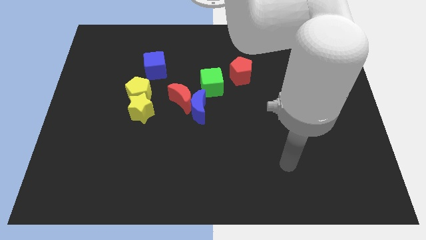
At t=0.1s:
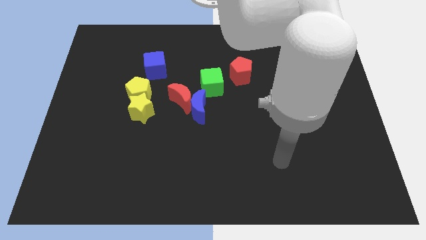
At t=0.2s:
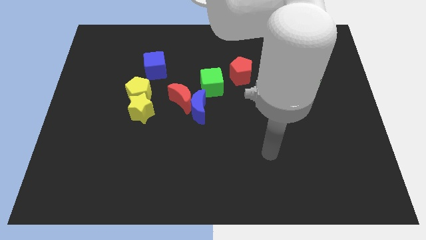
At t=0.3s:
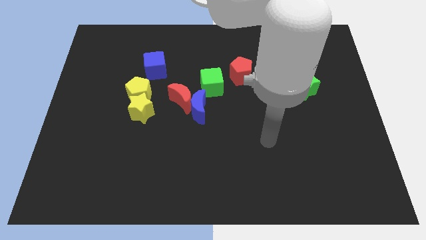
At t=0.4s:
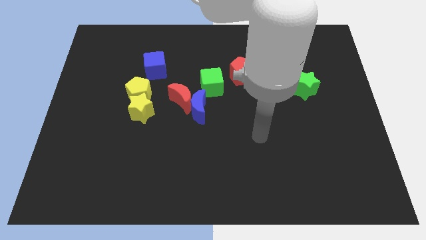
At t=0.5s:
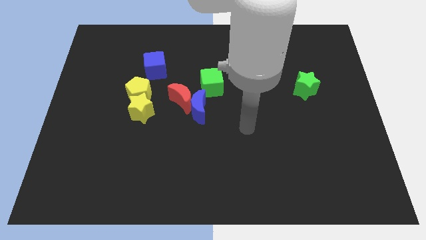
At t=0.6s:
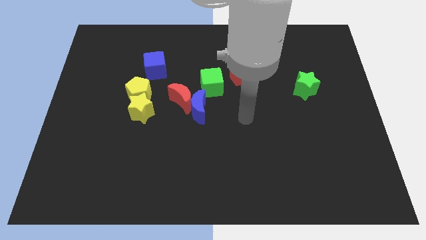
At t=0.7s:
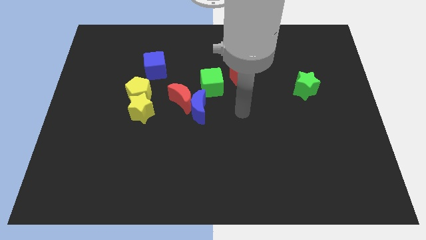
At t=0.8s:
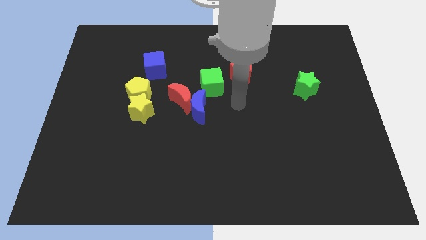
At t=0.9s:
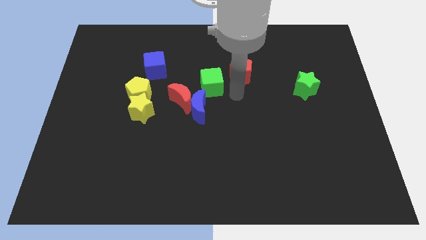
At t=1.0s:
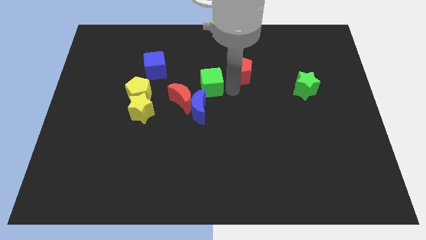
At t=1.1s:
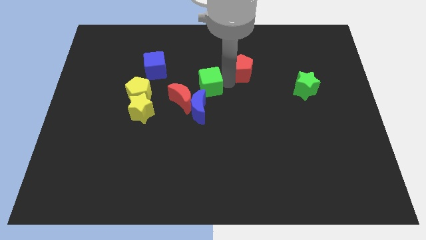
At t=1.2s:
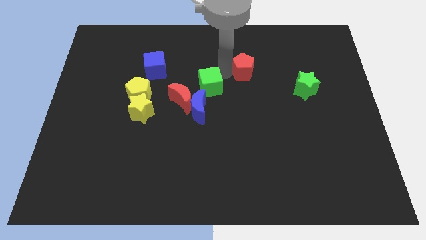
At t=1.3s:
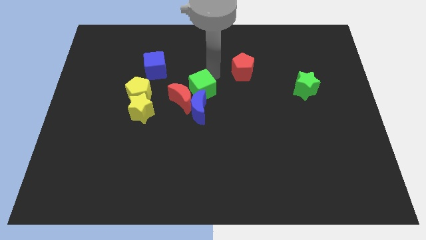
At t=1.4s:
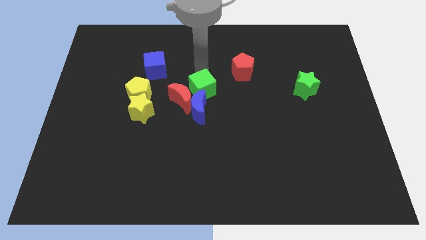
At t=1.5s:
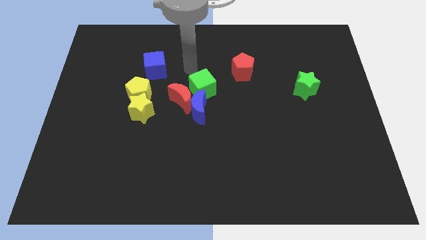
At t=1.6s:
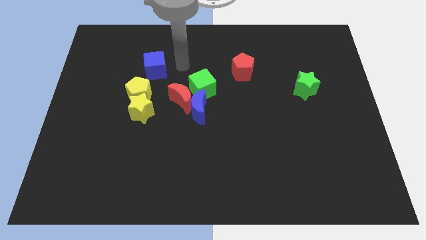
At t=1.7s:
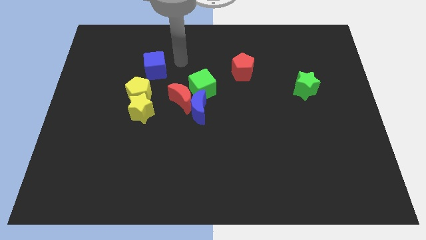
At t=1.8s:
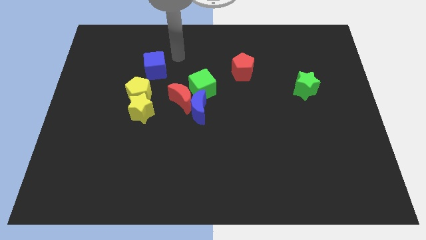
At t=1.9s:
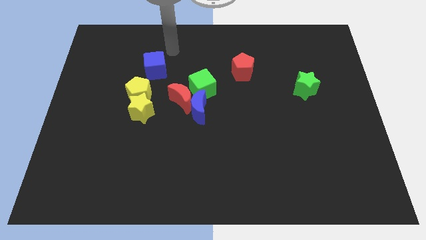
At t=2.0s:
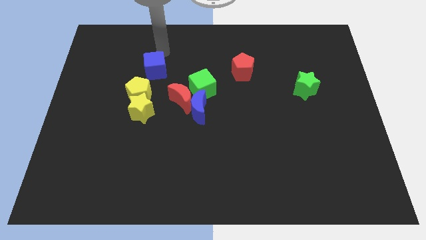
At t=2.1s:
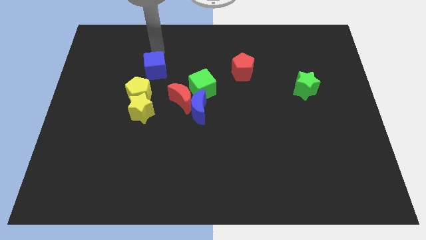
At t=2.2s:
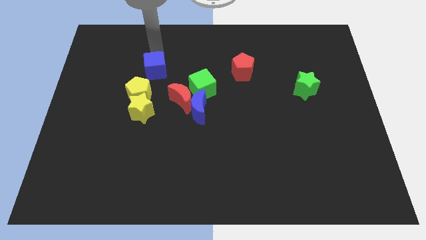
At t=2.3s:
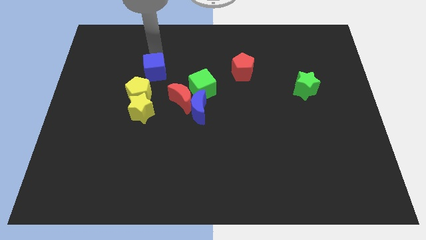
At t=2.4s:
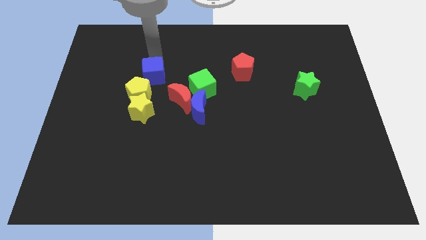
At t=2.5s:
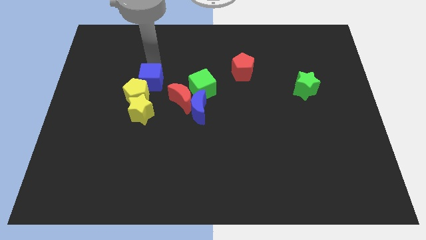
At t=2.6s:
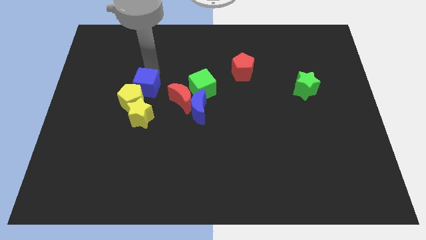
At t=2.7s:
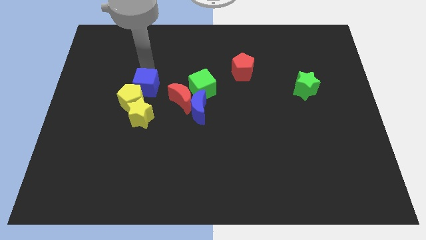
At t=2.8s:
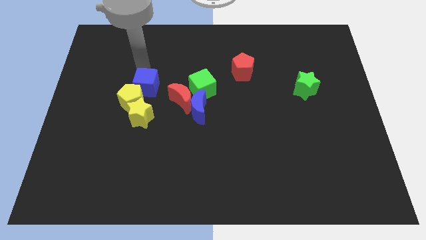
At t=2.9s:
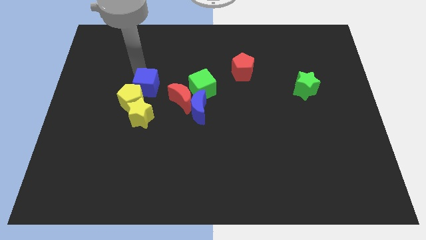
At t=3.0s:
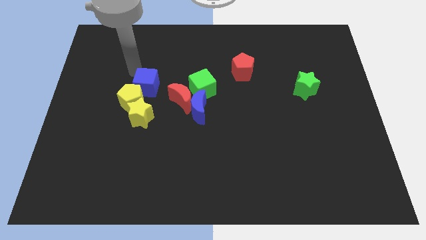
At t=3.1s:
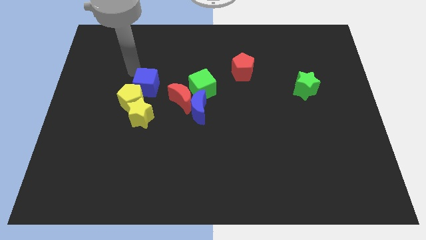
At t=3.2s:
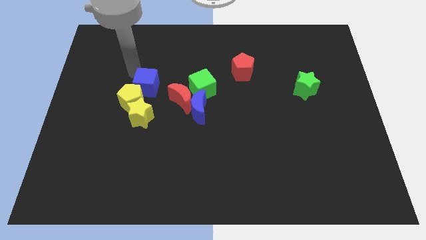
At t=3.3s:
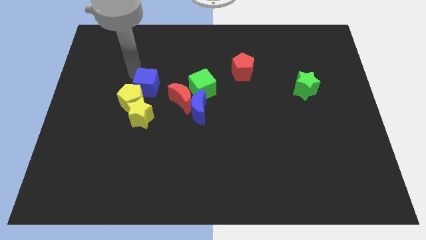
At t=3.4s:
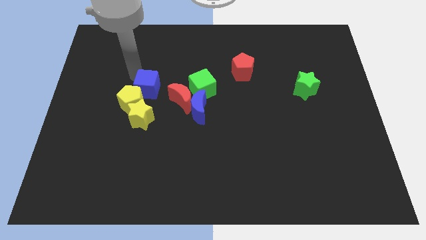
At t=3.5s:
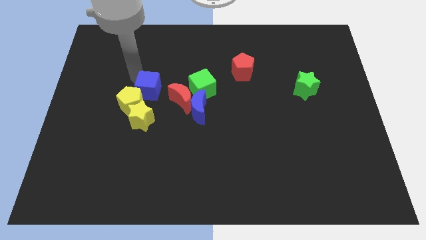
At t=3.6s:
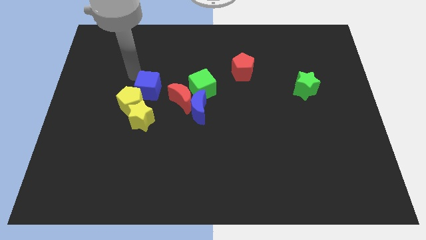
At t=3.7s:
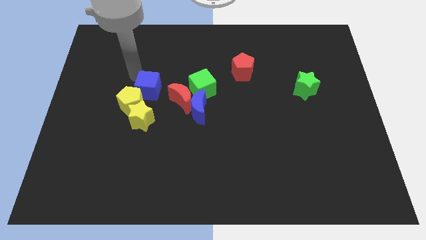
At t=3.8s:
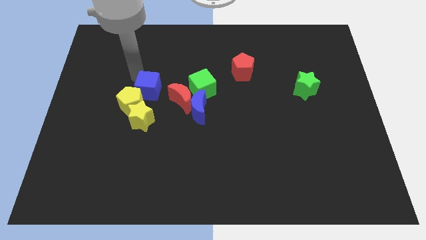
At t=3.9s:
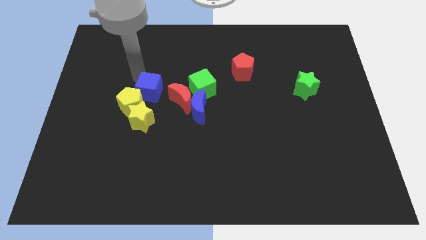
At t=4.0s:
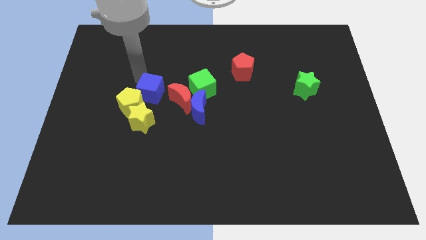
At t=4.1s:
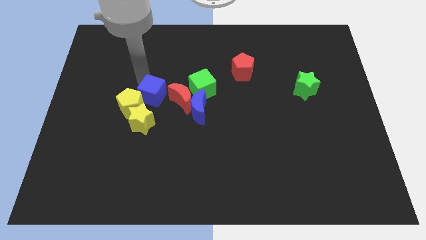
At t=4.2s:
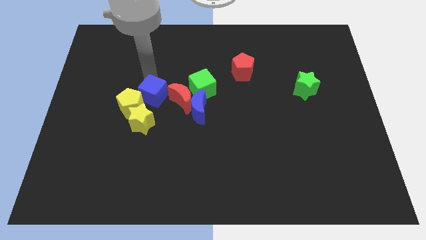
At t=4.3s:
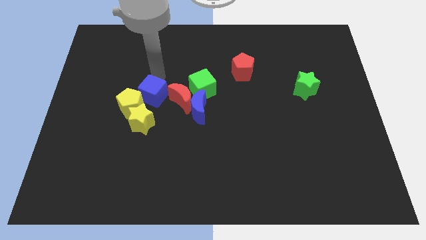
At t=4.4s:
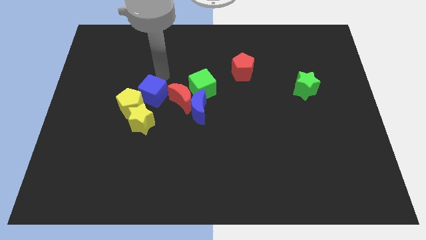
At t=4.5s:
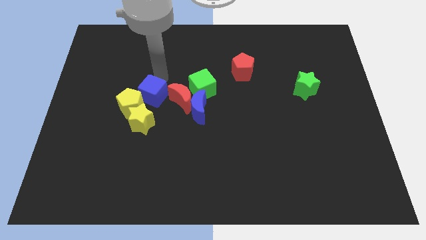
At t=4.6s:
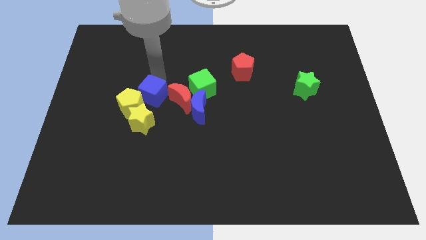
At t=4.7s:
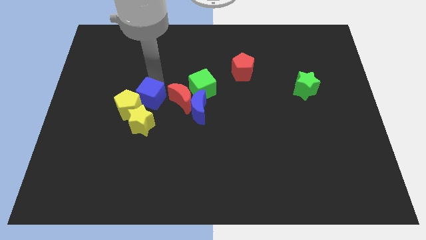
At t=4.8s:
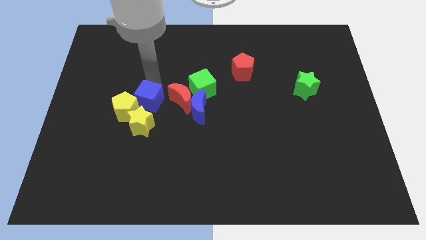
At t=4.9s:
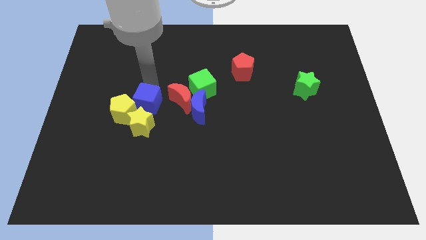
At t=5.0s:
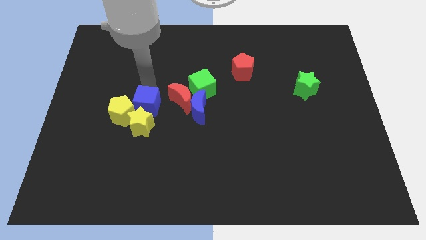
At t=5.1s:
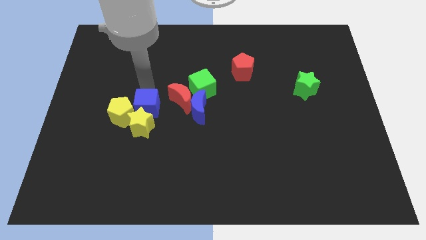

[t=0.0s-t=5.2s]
move the blue cube next to the yellow star

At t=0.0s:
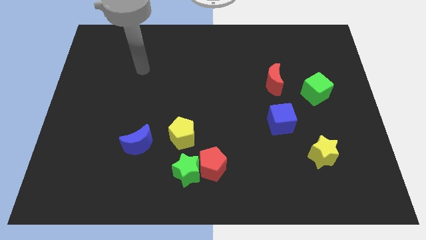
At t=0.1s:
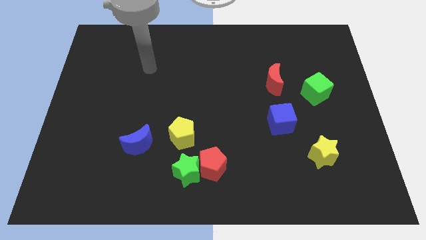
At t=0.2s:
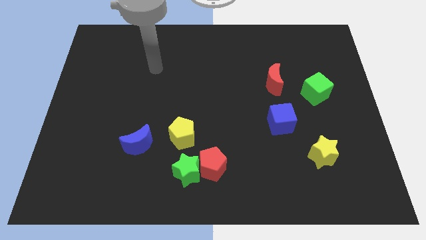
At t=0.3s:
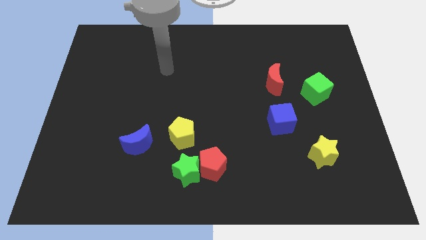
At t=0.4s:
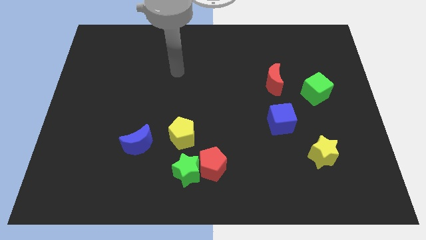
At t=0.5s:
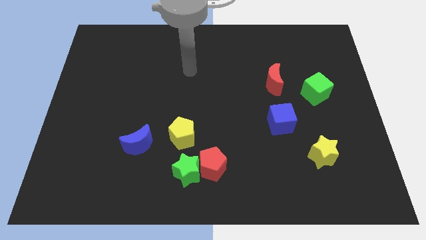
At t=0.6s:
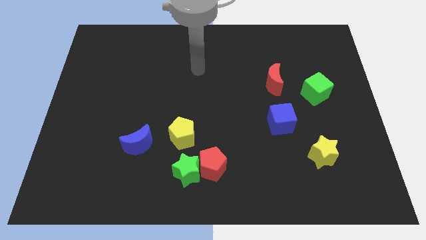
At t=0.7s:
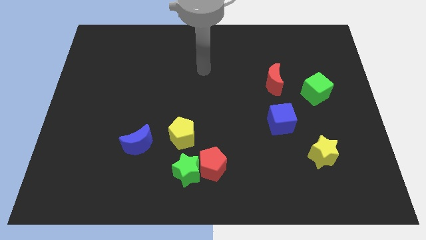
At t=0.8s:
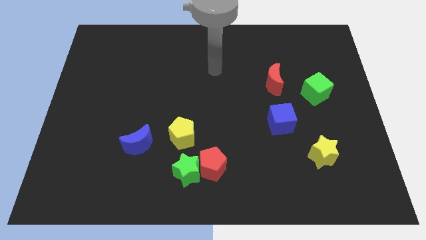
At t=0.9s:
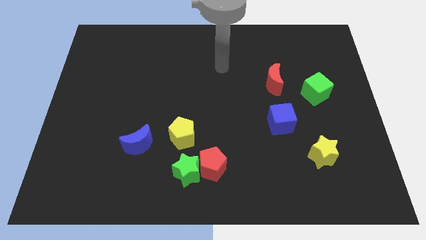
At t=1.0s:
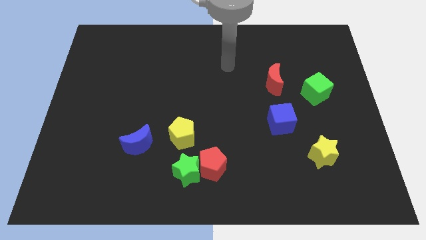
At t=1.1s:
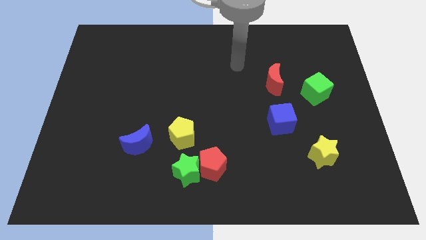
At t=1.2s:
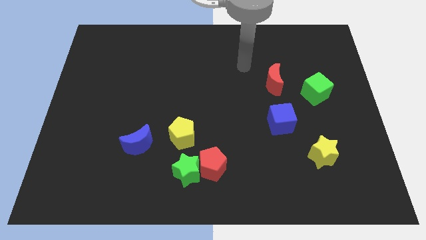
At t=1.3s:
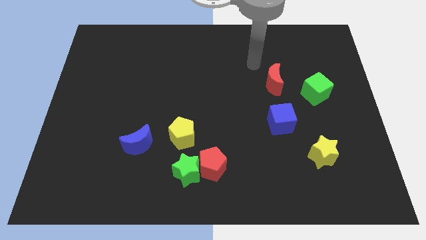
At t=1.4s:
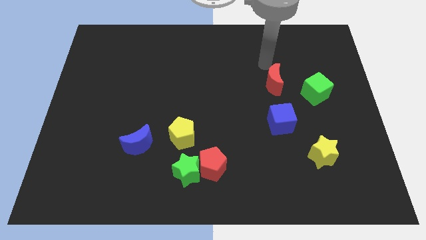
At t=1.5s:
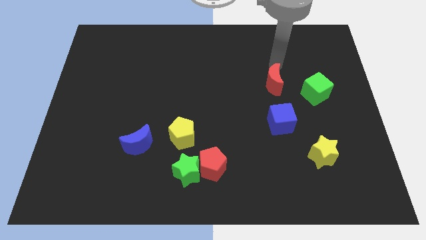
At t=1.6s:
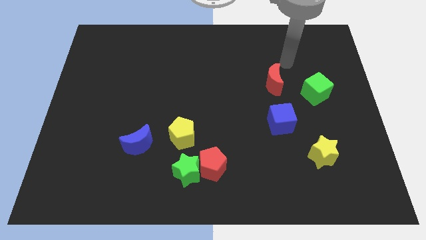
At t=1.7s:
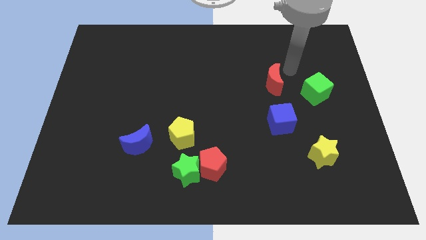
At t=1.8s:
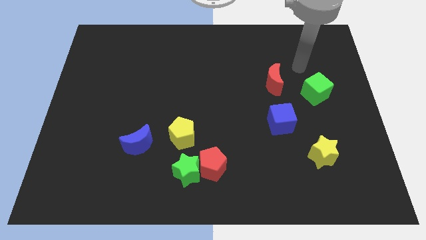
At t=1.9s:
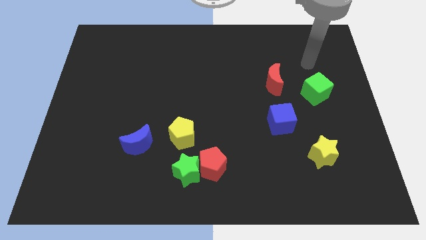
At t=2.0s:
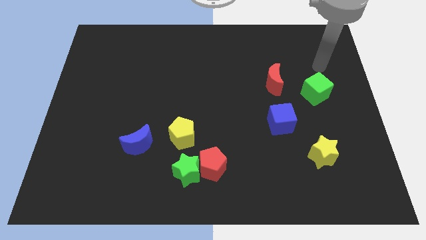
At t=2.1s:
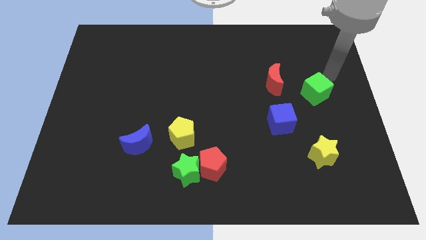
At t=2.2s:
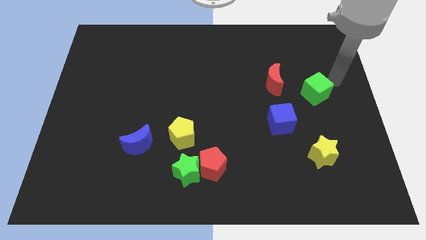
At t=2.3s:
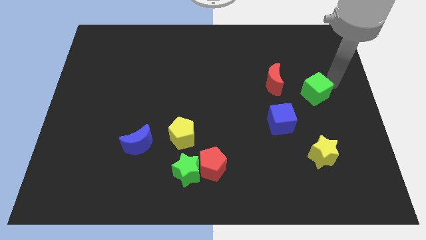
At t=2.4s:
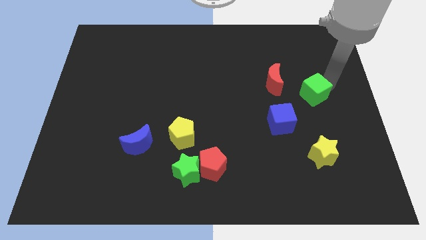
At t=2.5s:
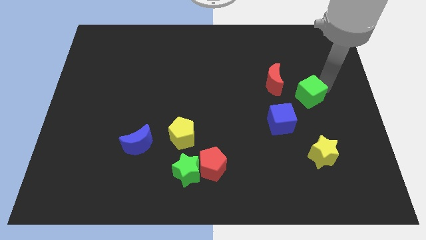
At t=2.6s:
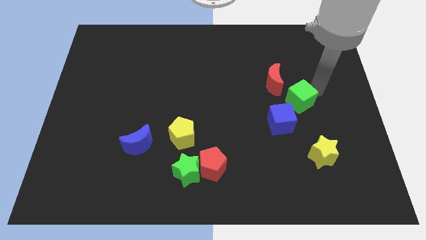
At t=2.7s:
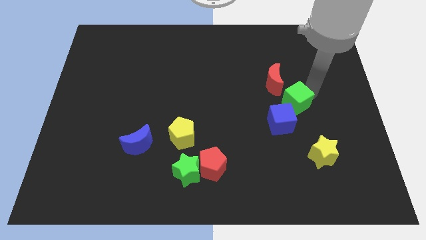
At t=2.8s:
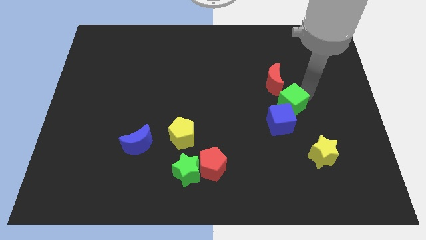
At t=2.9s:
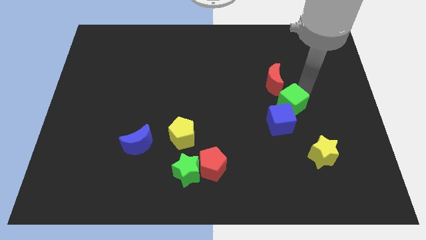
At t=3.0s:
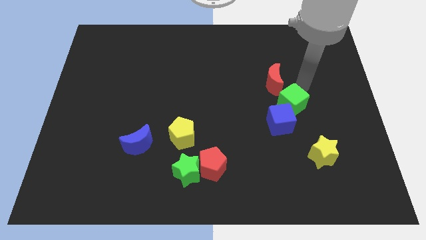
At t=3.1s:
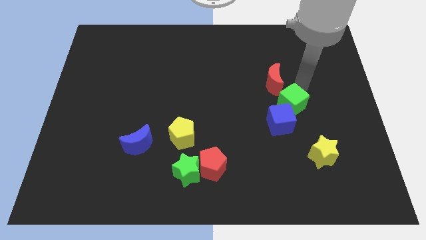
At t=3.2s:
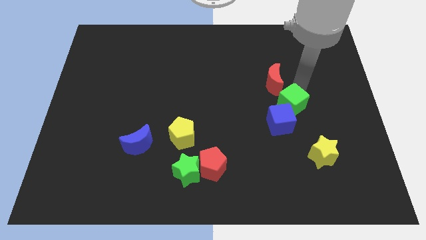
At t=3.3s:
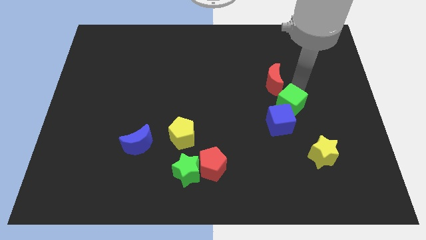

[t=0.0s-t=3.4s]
slide the green cube to the blue cube
